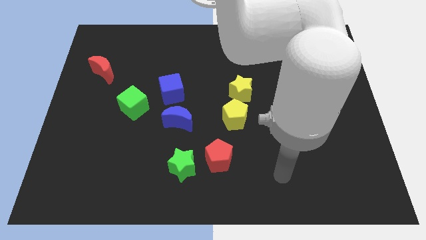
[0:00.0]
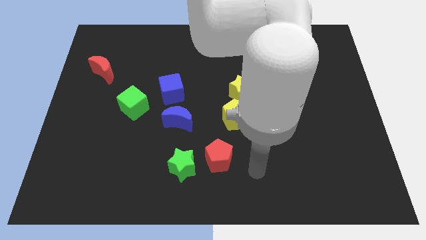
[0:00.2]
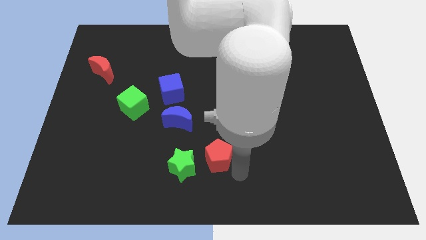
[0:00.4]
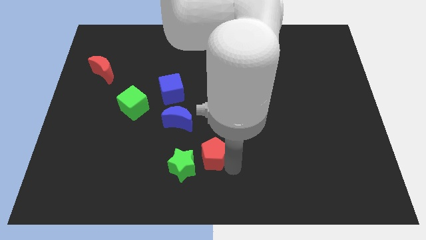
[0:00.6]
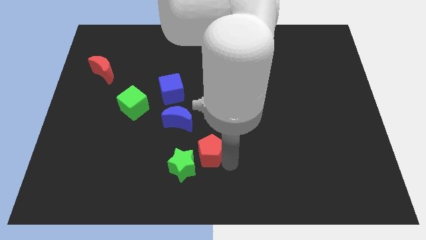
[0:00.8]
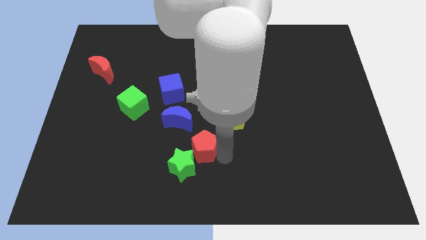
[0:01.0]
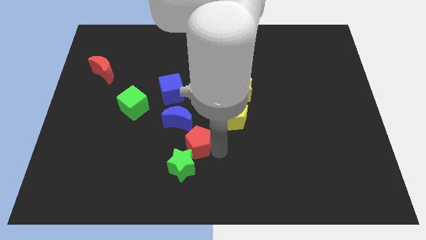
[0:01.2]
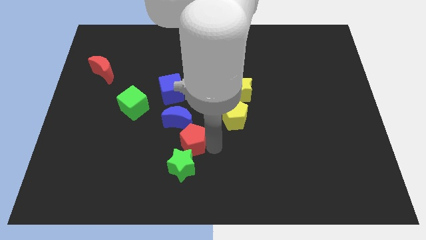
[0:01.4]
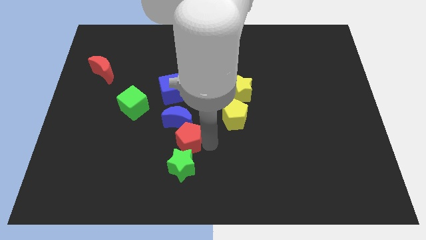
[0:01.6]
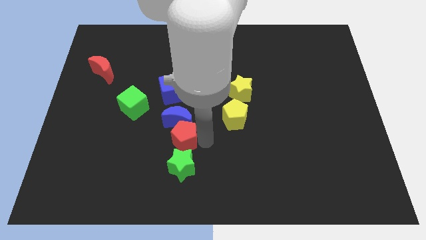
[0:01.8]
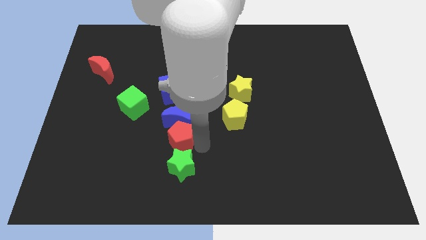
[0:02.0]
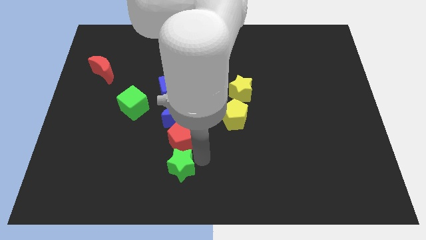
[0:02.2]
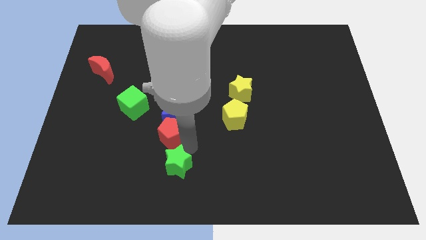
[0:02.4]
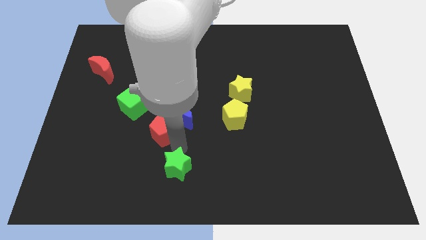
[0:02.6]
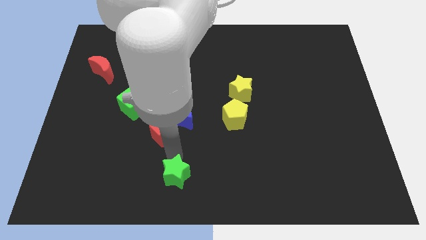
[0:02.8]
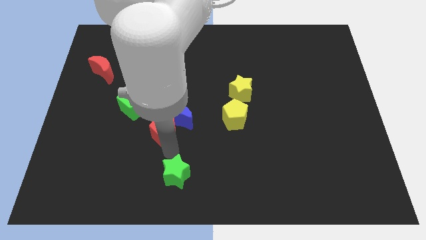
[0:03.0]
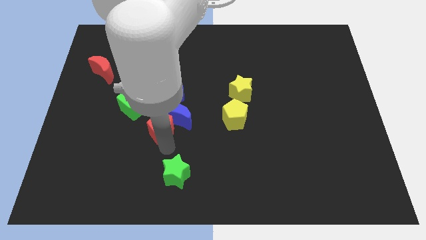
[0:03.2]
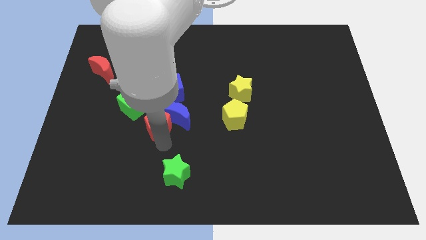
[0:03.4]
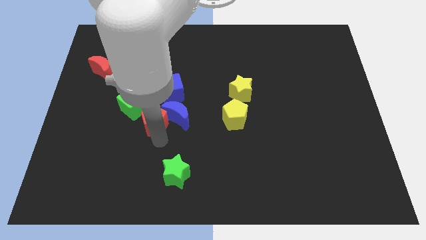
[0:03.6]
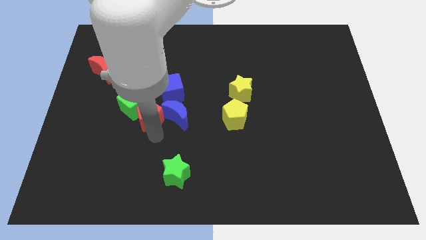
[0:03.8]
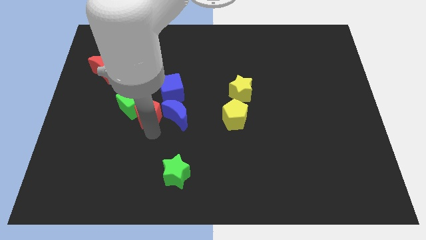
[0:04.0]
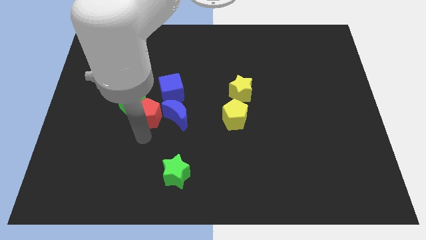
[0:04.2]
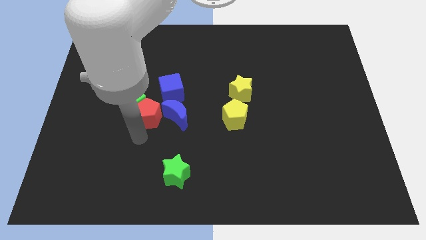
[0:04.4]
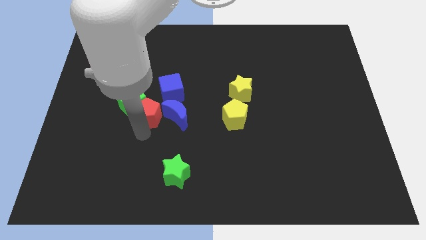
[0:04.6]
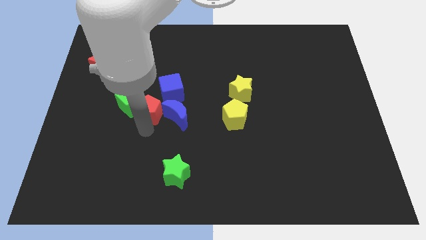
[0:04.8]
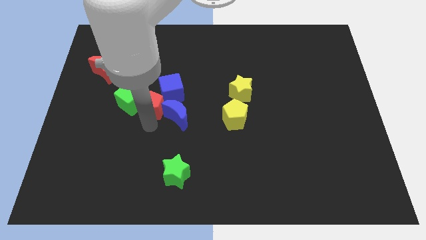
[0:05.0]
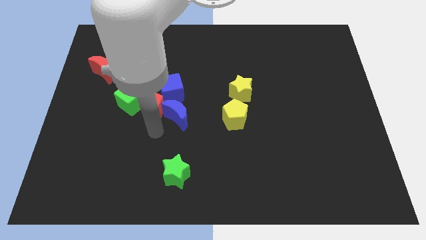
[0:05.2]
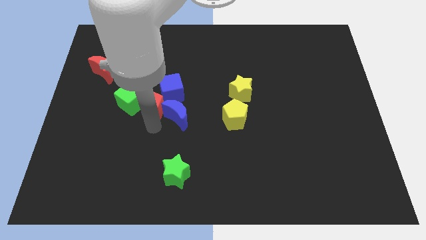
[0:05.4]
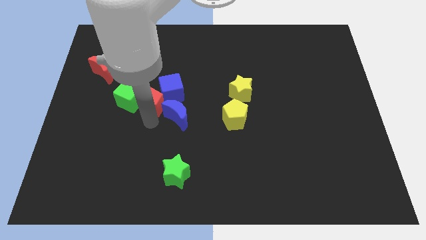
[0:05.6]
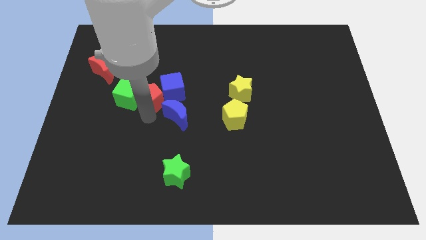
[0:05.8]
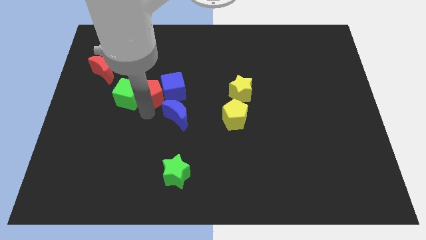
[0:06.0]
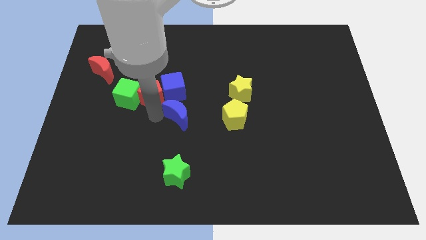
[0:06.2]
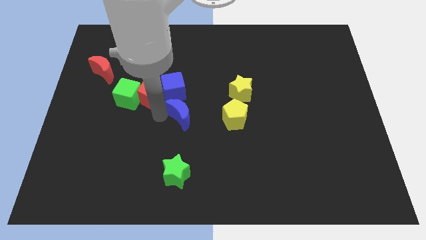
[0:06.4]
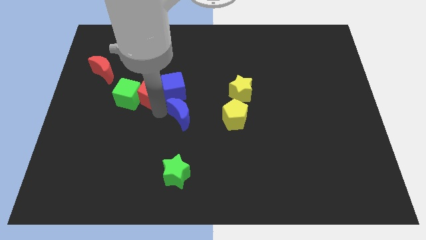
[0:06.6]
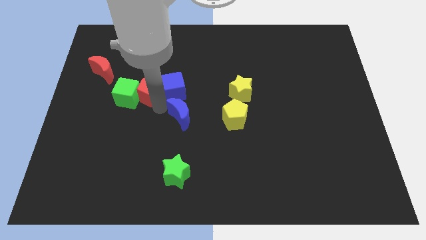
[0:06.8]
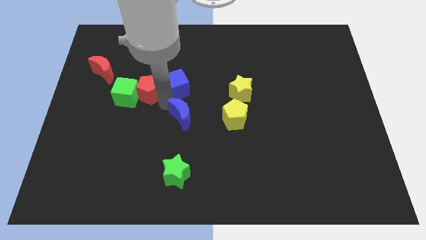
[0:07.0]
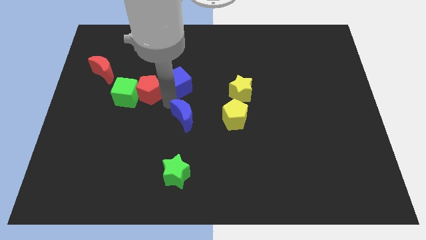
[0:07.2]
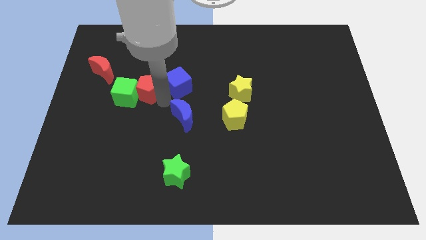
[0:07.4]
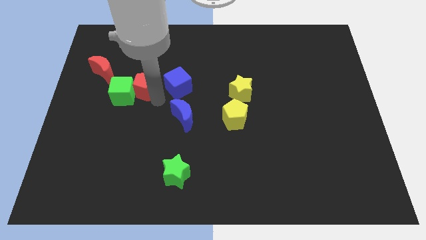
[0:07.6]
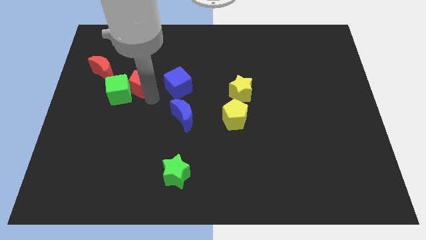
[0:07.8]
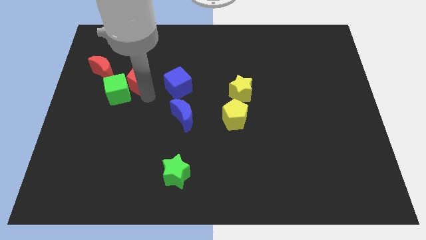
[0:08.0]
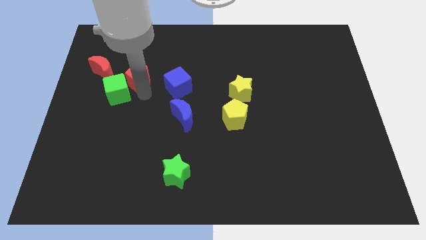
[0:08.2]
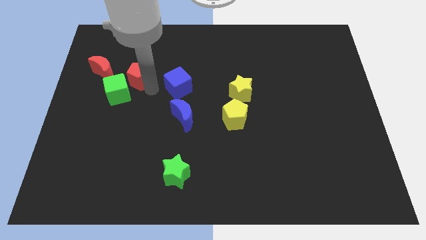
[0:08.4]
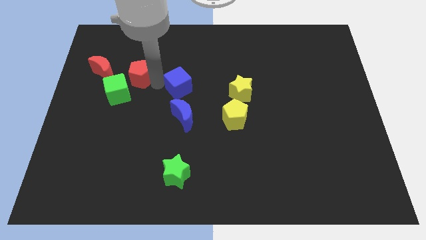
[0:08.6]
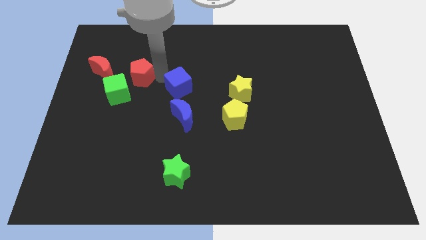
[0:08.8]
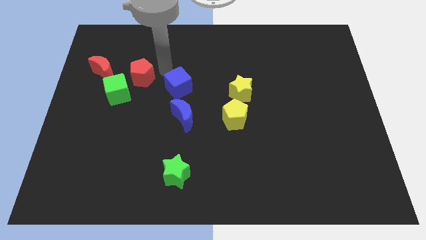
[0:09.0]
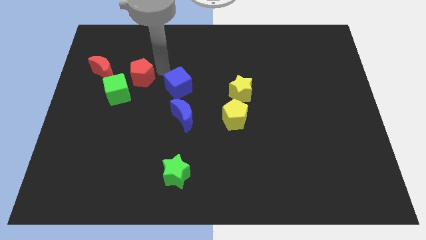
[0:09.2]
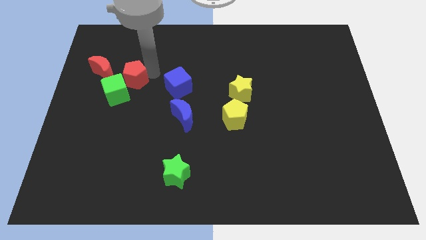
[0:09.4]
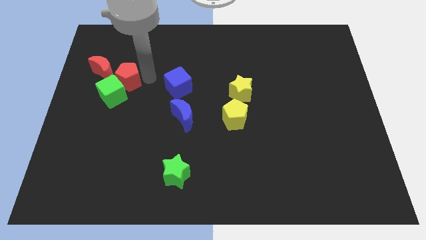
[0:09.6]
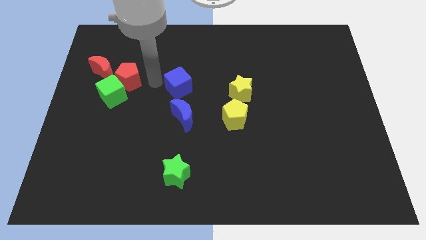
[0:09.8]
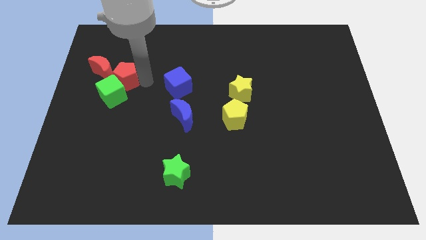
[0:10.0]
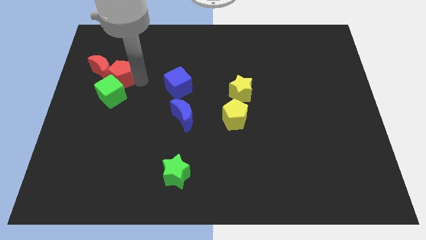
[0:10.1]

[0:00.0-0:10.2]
push the red pentagon towards the red moon

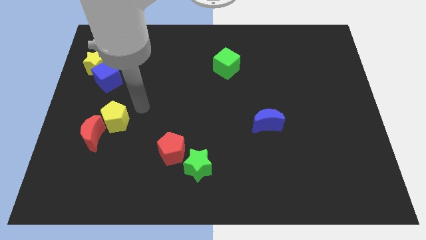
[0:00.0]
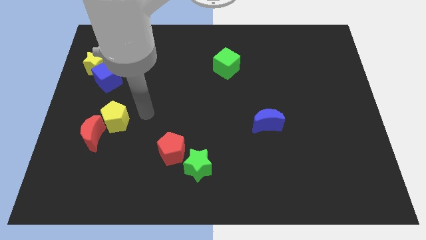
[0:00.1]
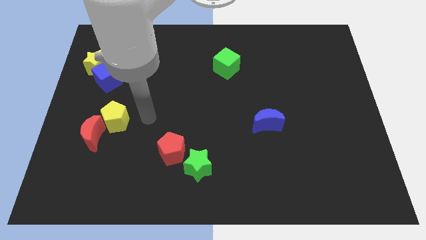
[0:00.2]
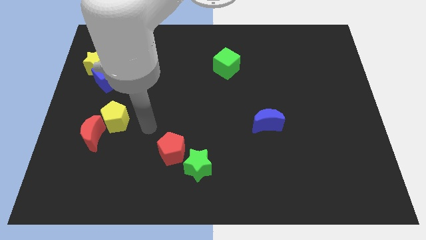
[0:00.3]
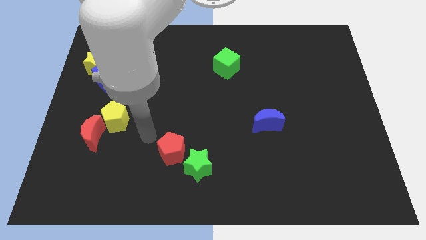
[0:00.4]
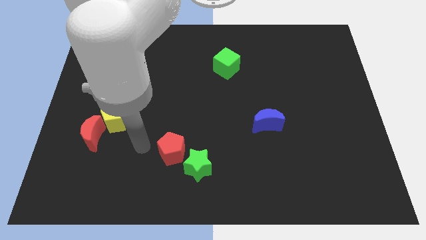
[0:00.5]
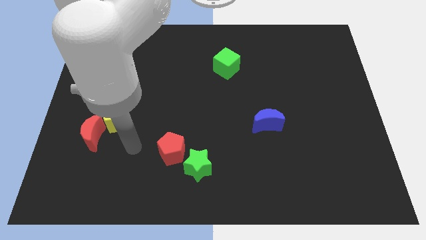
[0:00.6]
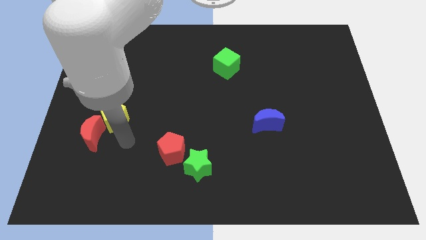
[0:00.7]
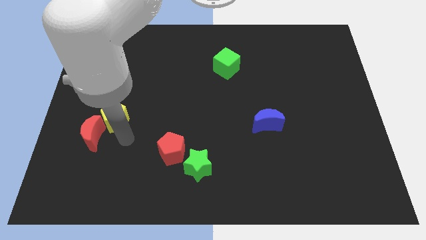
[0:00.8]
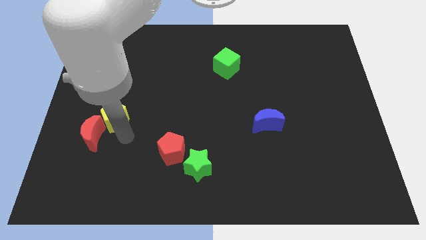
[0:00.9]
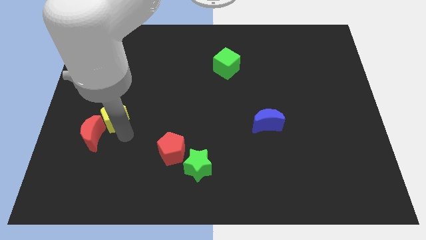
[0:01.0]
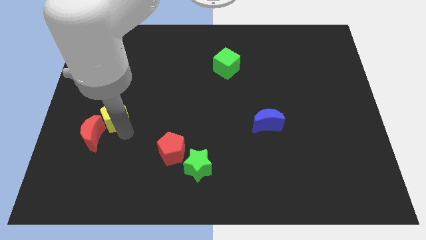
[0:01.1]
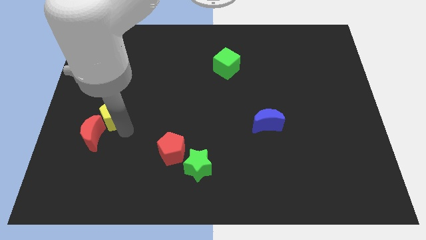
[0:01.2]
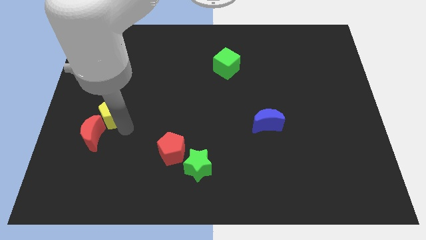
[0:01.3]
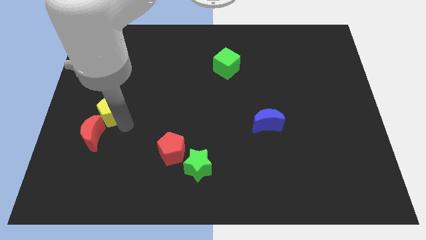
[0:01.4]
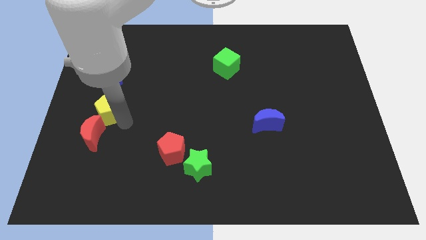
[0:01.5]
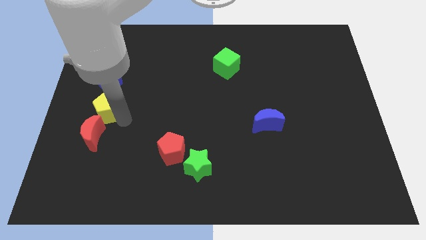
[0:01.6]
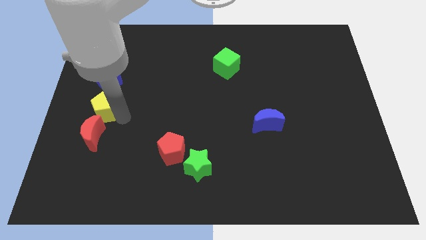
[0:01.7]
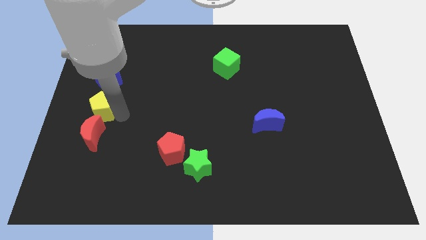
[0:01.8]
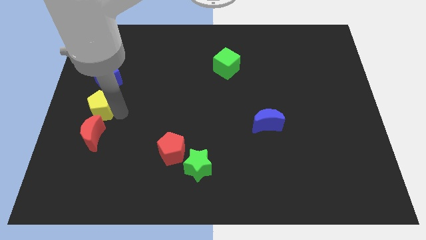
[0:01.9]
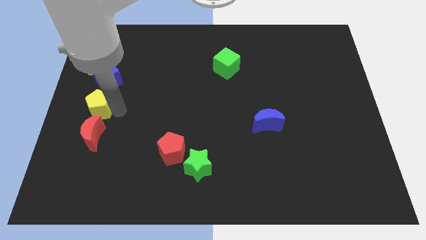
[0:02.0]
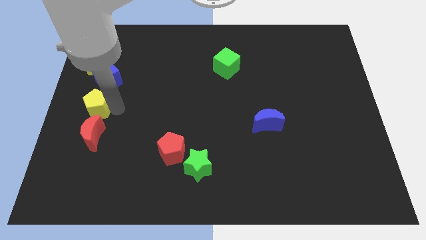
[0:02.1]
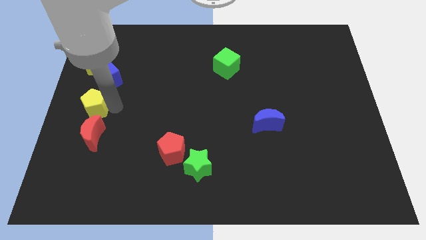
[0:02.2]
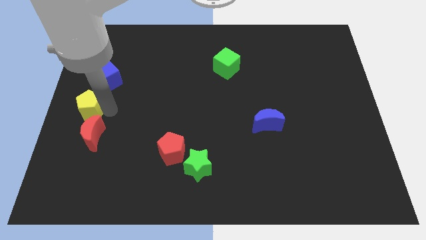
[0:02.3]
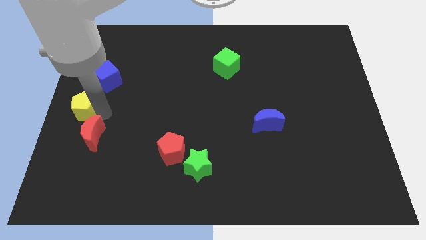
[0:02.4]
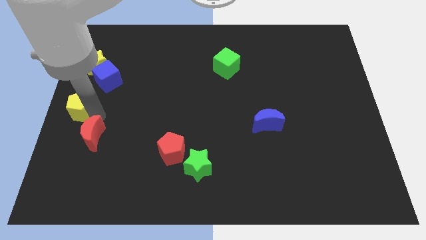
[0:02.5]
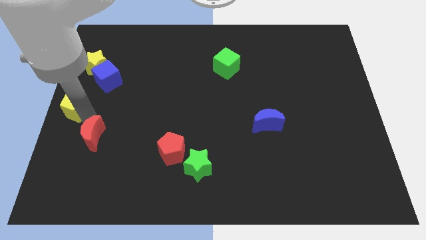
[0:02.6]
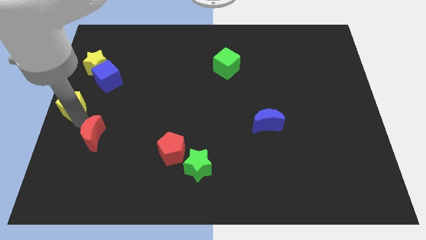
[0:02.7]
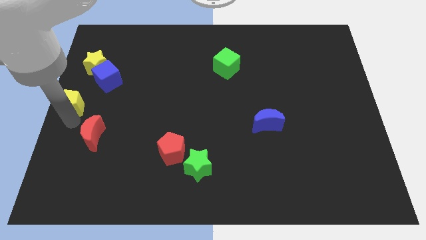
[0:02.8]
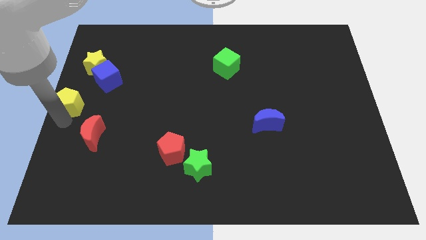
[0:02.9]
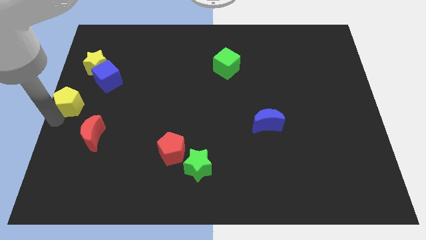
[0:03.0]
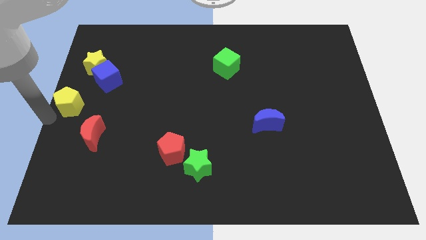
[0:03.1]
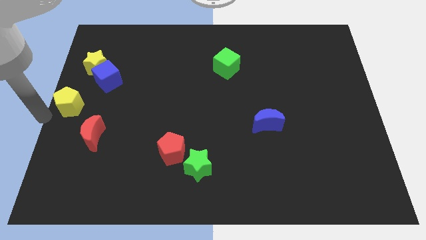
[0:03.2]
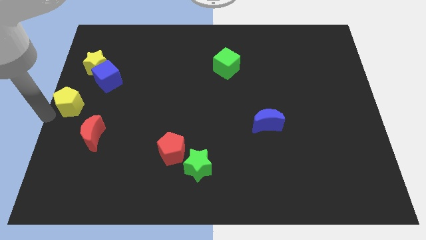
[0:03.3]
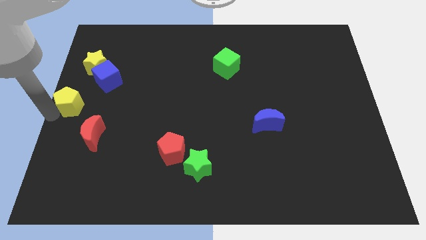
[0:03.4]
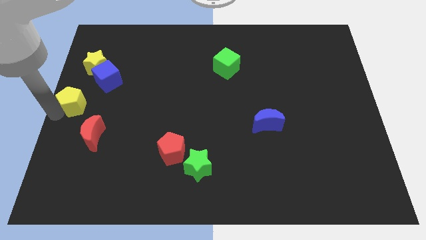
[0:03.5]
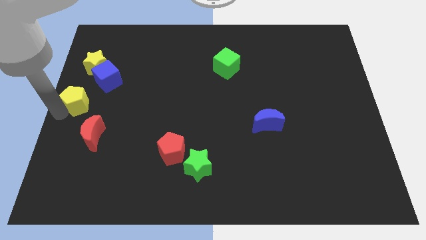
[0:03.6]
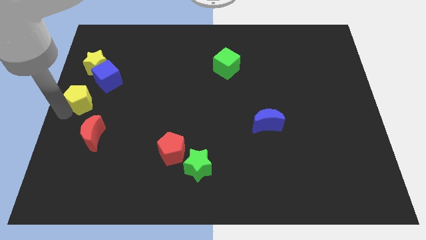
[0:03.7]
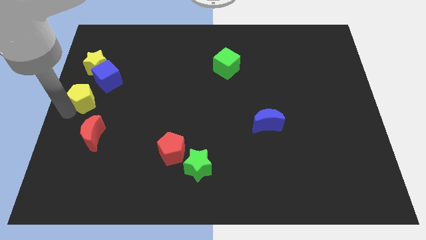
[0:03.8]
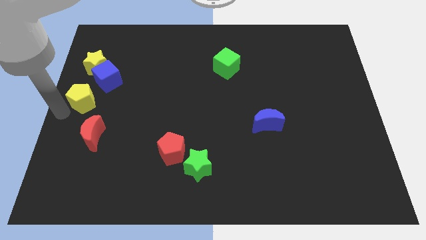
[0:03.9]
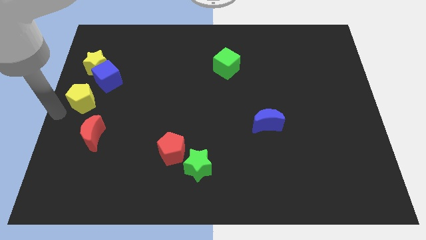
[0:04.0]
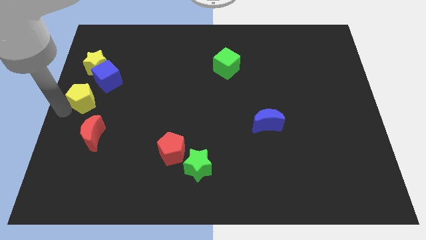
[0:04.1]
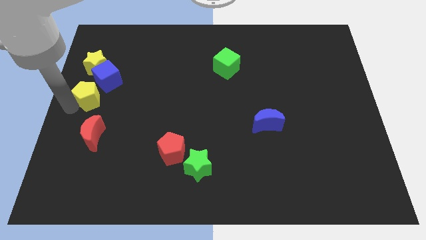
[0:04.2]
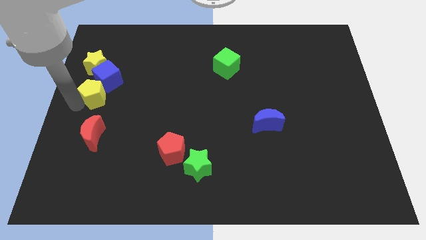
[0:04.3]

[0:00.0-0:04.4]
push the yellow pentagon to the blue cube
